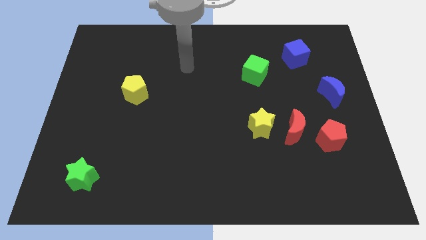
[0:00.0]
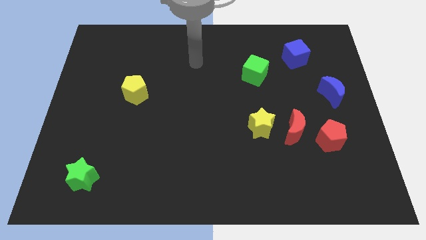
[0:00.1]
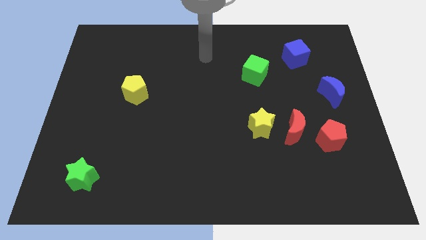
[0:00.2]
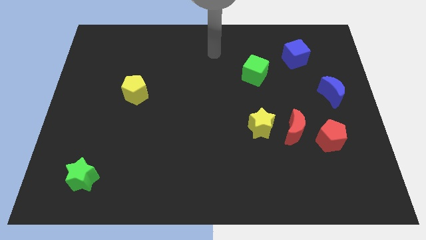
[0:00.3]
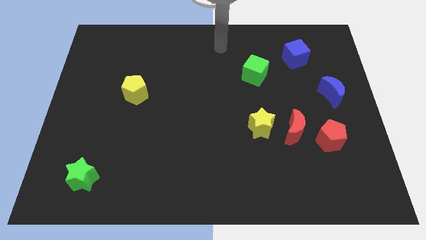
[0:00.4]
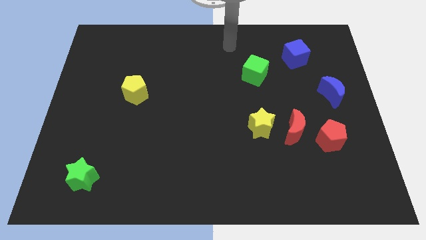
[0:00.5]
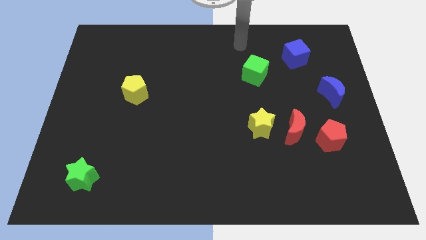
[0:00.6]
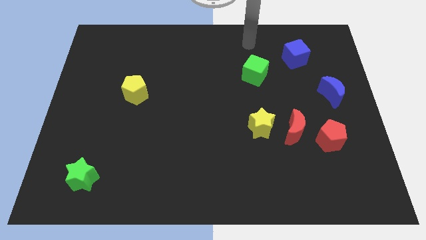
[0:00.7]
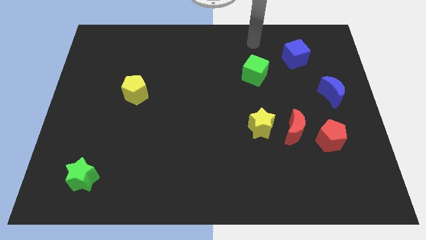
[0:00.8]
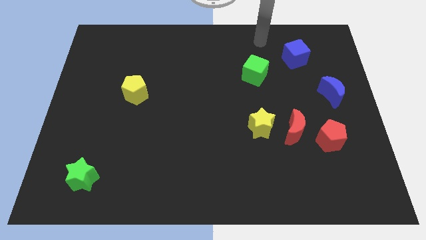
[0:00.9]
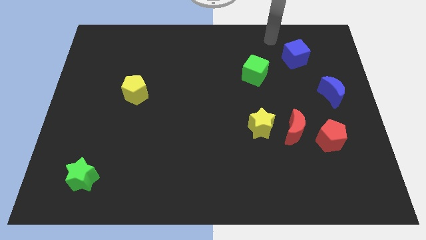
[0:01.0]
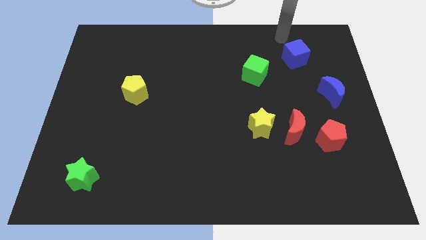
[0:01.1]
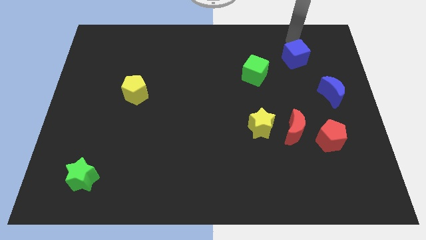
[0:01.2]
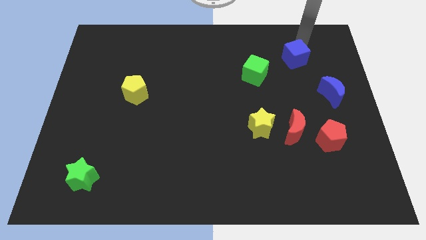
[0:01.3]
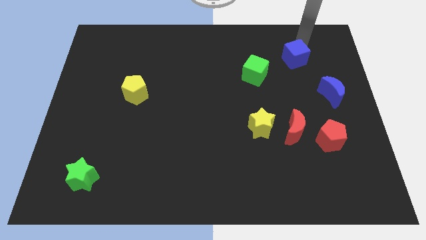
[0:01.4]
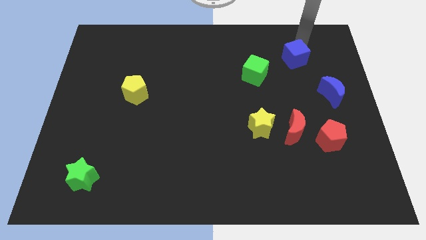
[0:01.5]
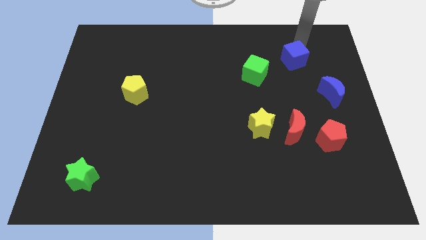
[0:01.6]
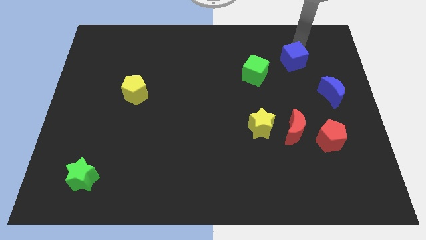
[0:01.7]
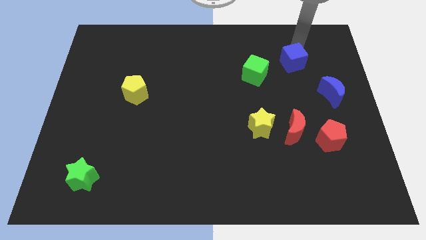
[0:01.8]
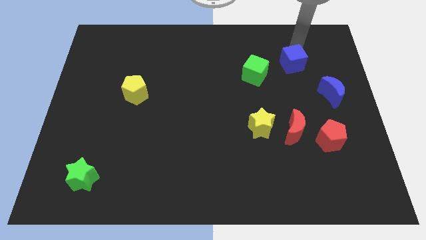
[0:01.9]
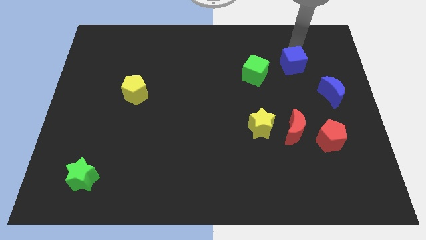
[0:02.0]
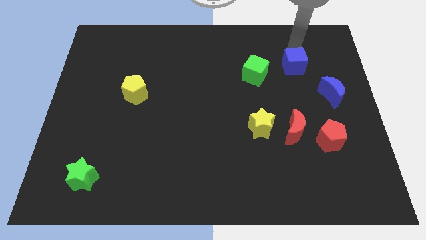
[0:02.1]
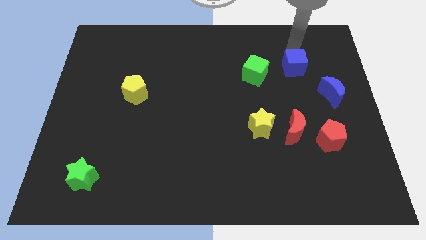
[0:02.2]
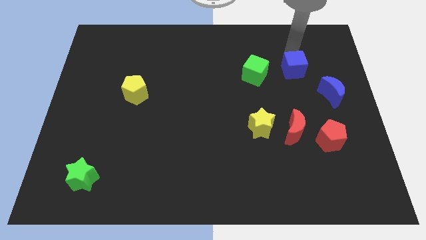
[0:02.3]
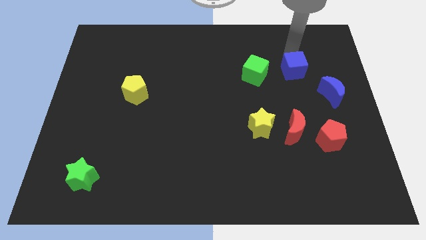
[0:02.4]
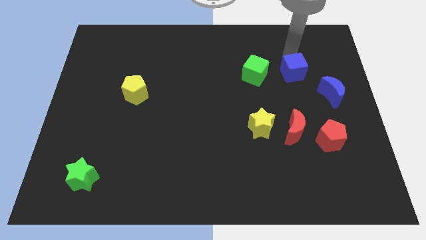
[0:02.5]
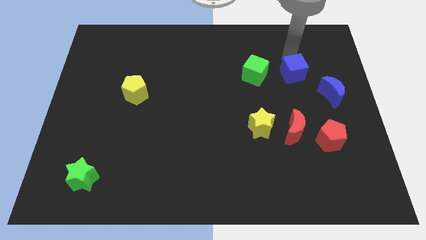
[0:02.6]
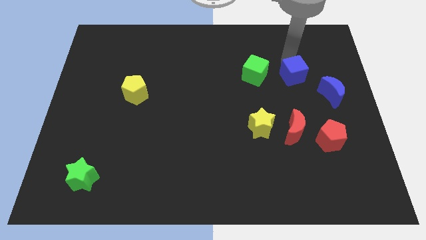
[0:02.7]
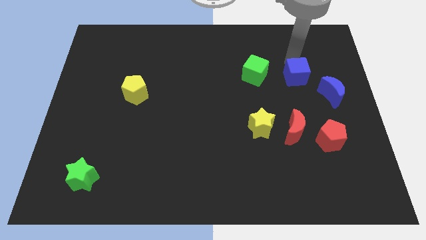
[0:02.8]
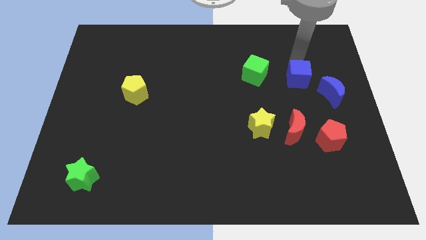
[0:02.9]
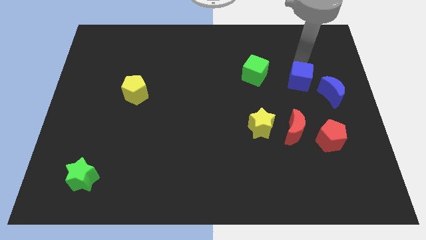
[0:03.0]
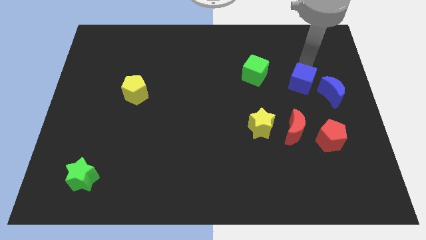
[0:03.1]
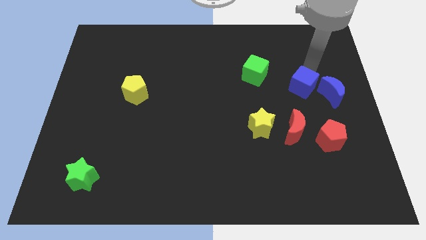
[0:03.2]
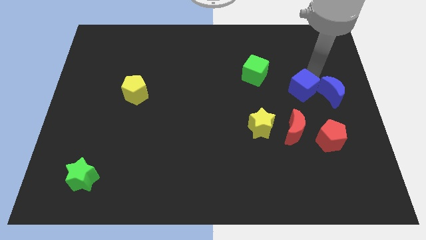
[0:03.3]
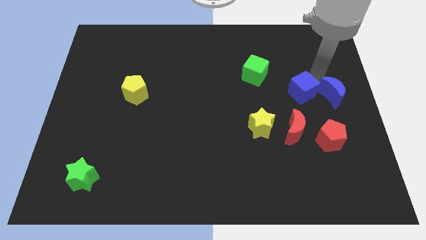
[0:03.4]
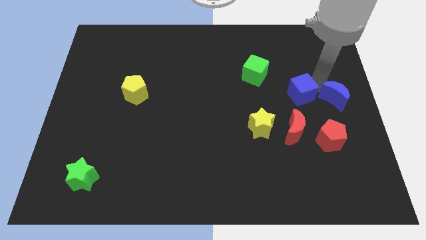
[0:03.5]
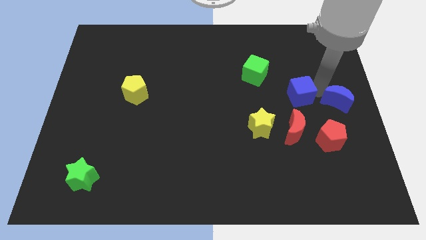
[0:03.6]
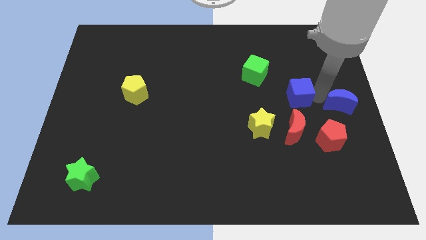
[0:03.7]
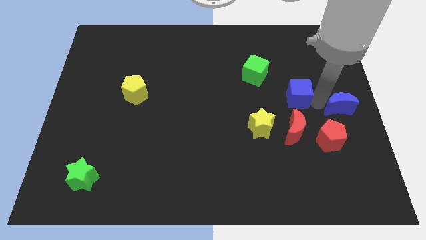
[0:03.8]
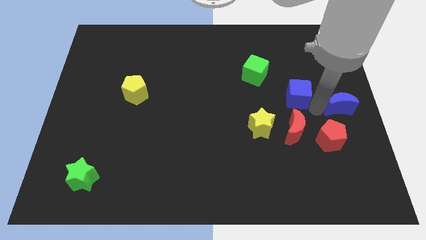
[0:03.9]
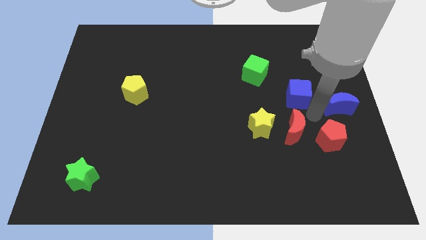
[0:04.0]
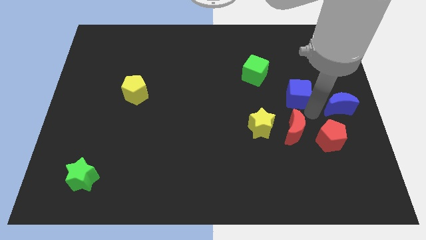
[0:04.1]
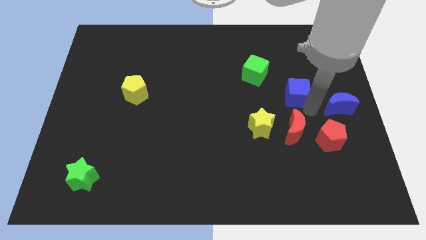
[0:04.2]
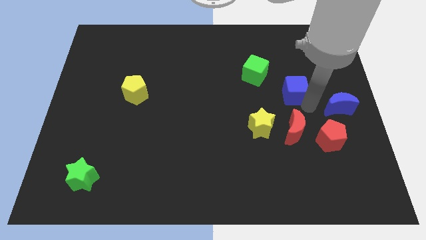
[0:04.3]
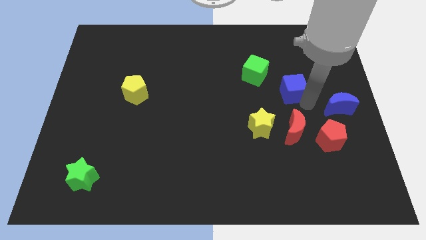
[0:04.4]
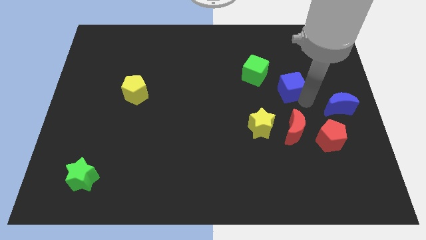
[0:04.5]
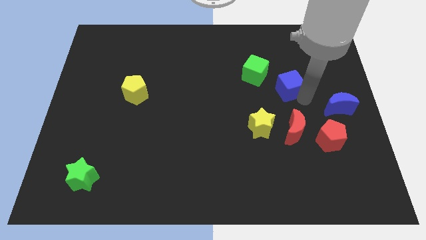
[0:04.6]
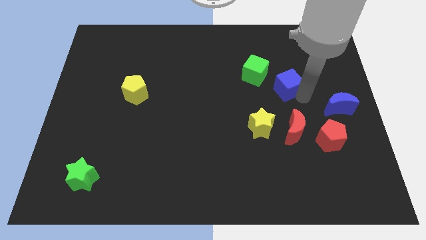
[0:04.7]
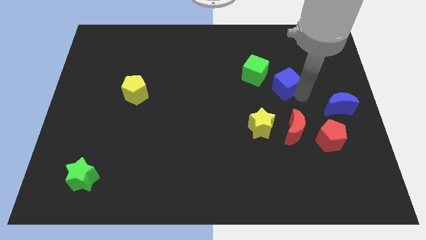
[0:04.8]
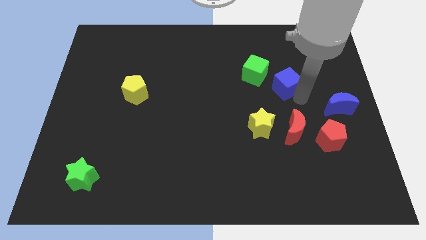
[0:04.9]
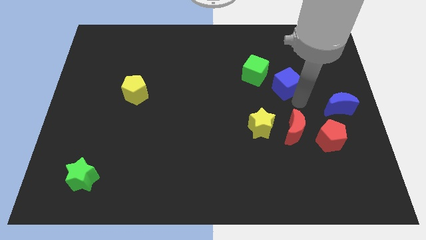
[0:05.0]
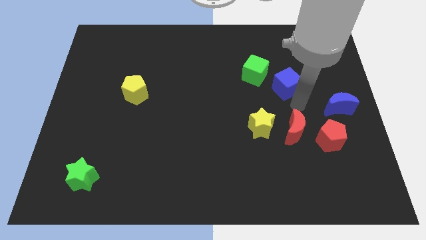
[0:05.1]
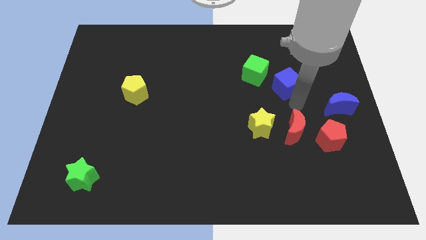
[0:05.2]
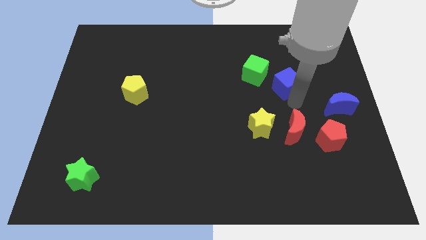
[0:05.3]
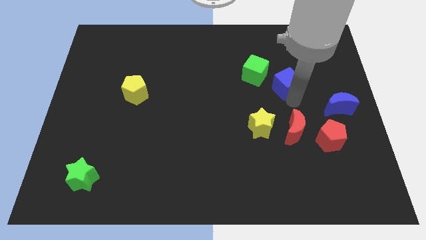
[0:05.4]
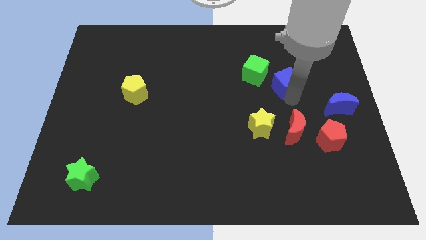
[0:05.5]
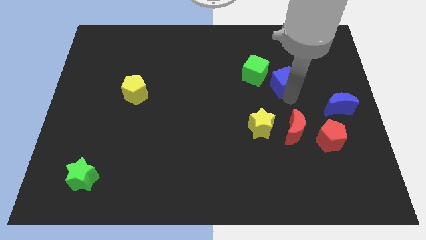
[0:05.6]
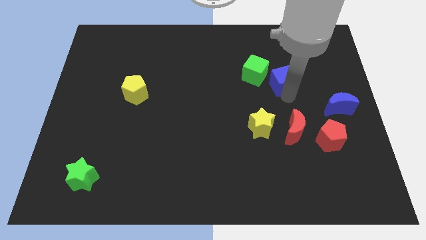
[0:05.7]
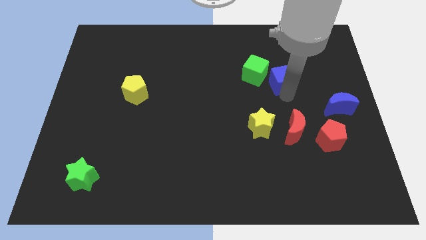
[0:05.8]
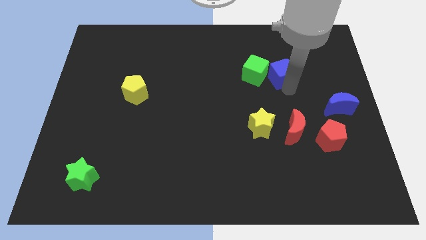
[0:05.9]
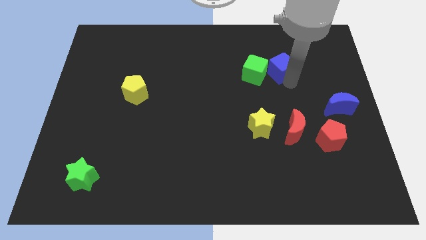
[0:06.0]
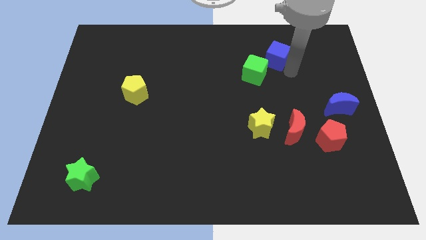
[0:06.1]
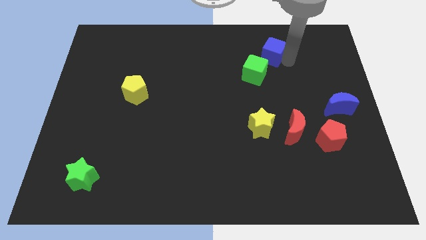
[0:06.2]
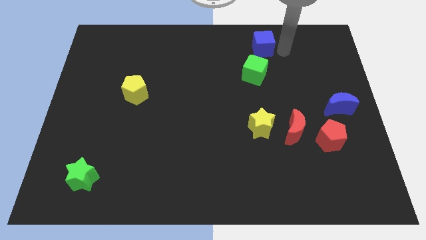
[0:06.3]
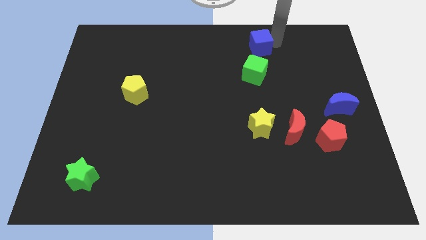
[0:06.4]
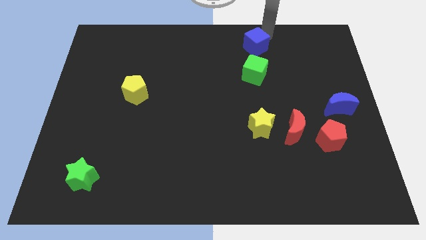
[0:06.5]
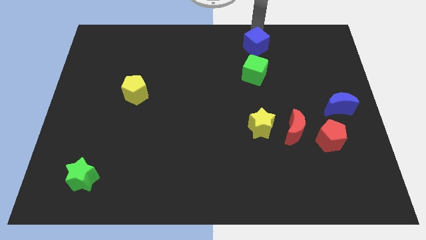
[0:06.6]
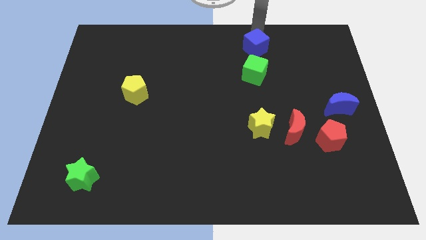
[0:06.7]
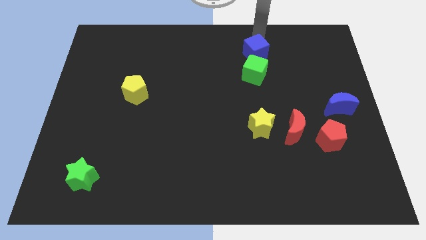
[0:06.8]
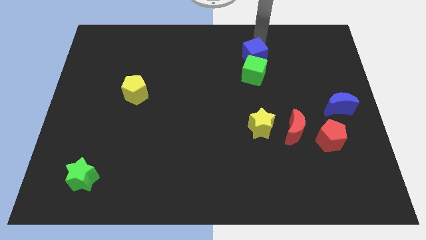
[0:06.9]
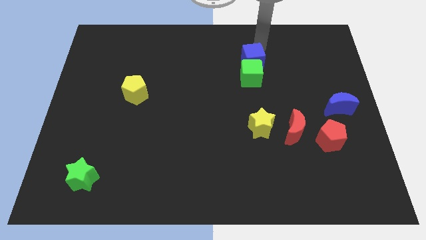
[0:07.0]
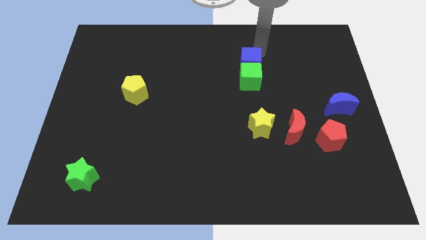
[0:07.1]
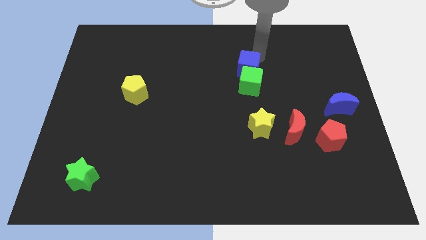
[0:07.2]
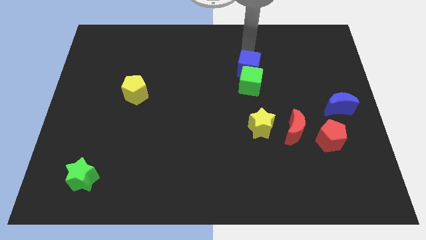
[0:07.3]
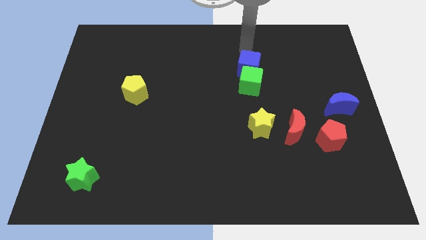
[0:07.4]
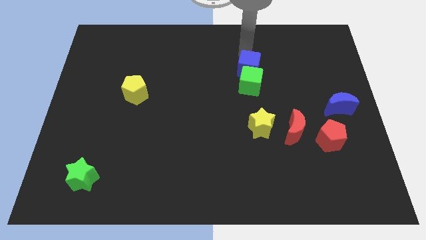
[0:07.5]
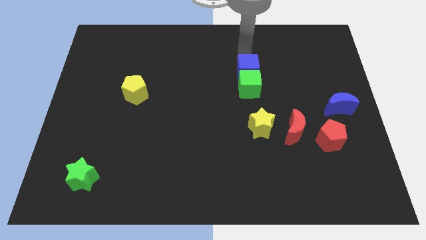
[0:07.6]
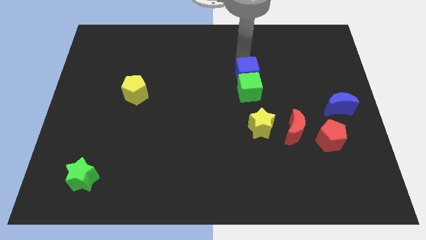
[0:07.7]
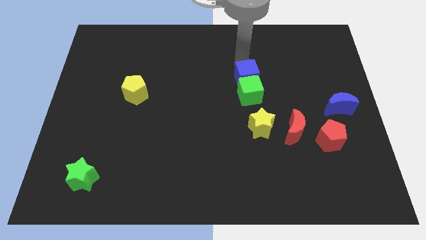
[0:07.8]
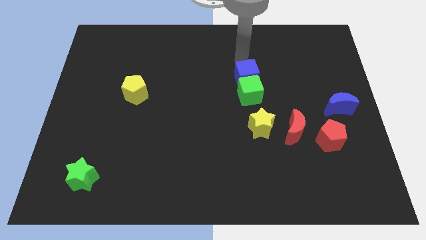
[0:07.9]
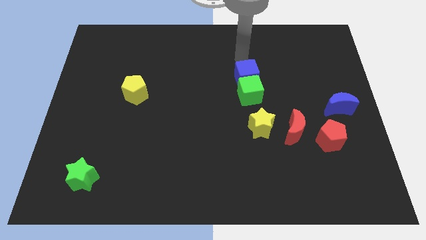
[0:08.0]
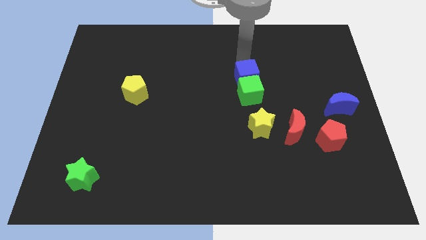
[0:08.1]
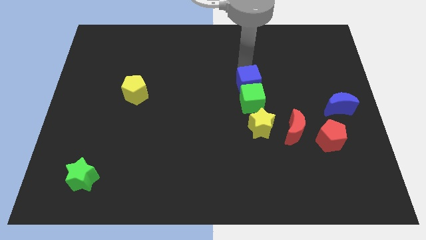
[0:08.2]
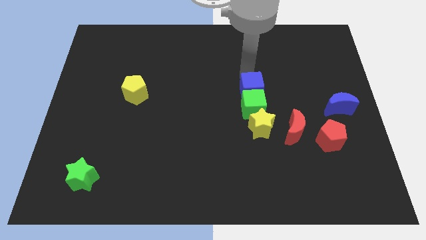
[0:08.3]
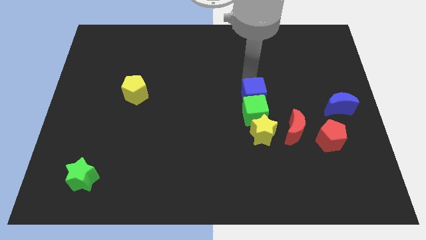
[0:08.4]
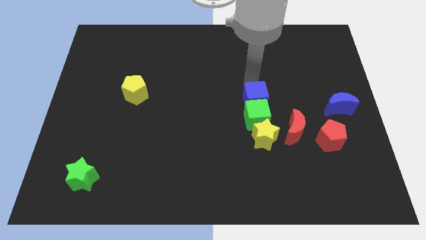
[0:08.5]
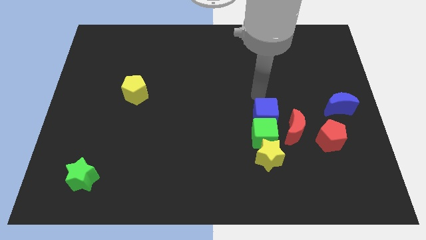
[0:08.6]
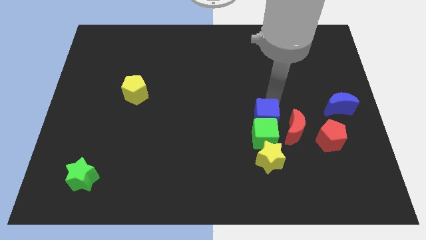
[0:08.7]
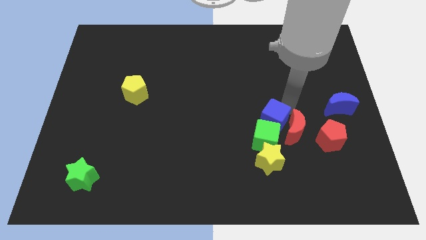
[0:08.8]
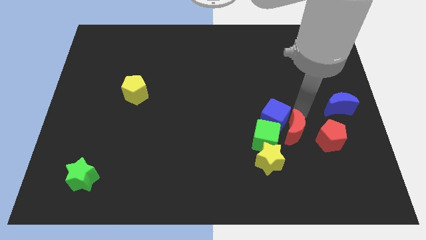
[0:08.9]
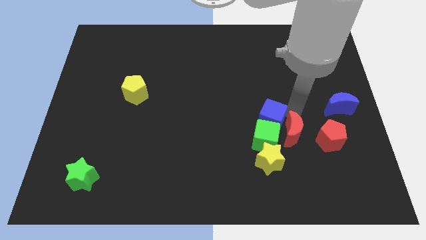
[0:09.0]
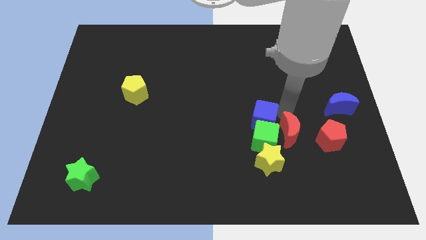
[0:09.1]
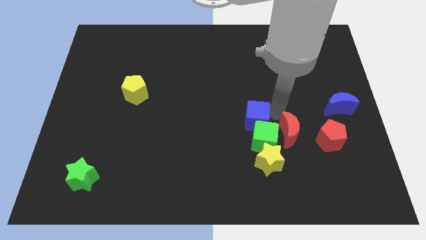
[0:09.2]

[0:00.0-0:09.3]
slide the blue cube diagonally downwards and left
